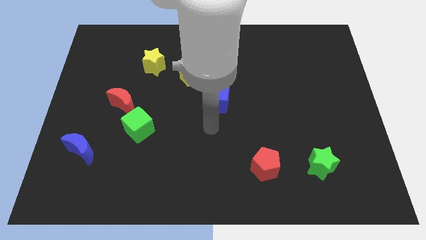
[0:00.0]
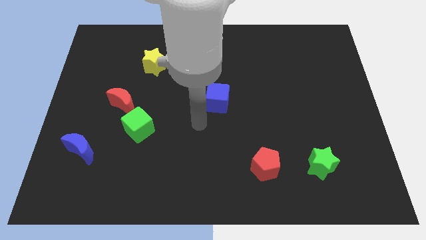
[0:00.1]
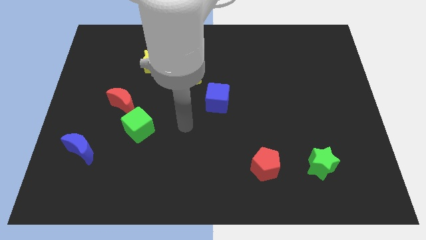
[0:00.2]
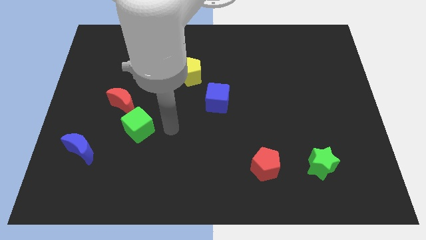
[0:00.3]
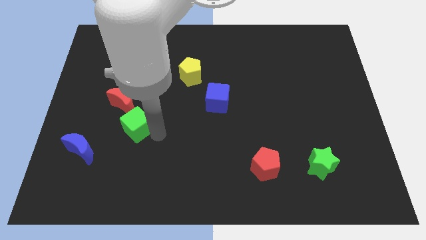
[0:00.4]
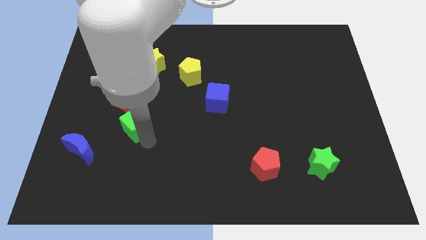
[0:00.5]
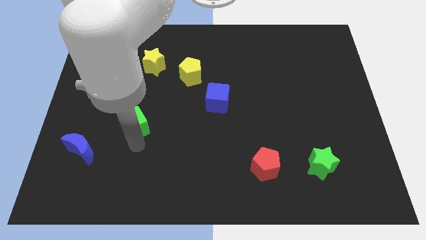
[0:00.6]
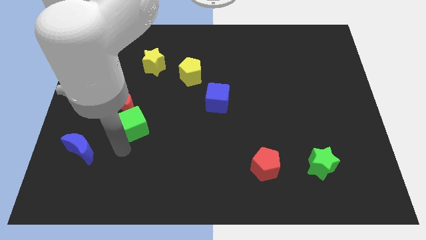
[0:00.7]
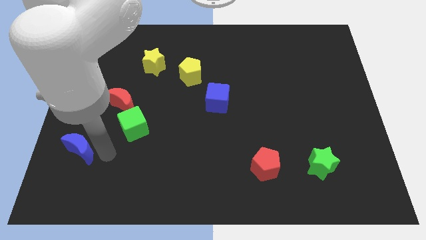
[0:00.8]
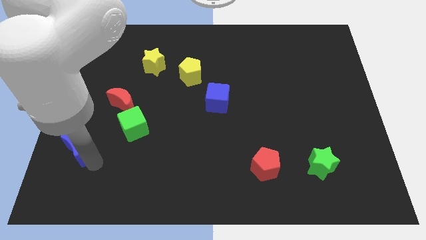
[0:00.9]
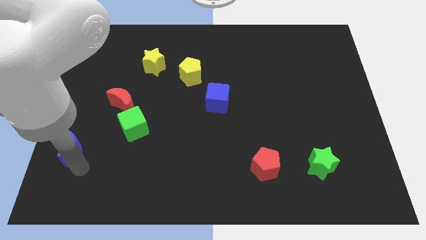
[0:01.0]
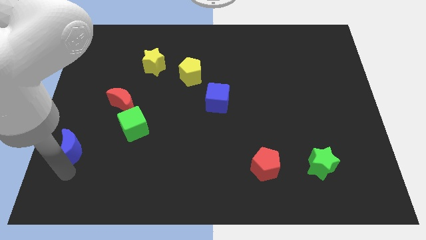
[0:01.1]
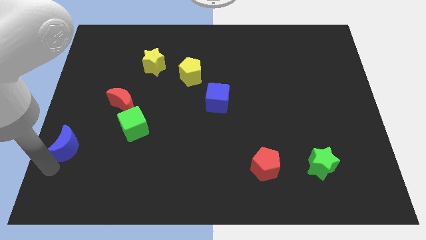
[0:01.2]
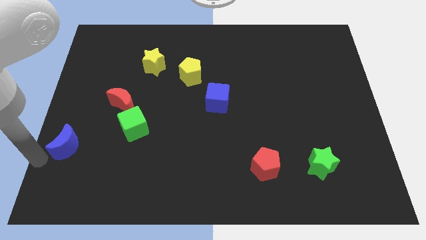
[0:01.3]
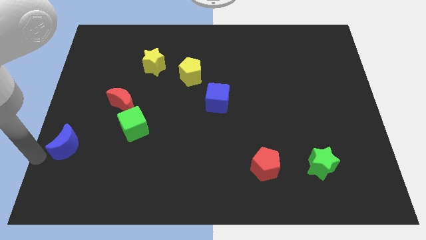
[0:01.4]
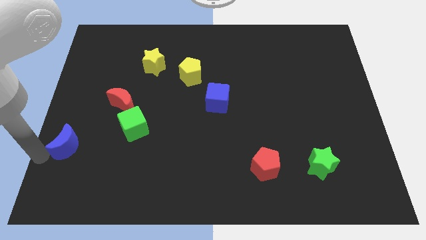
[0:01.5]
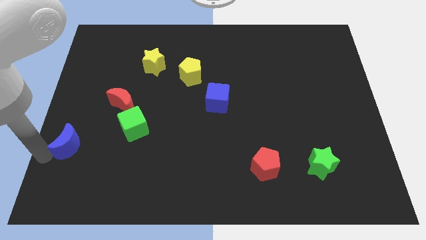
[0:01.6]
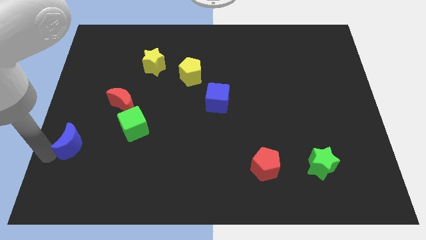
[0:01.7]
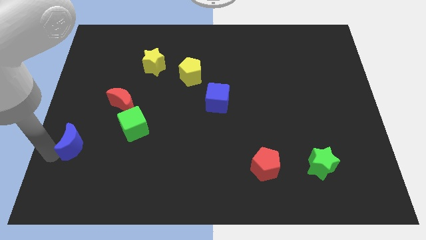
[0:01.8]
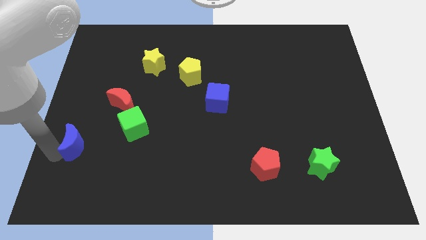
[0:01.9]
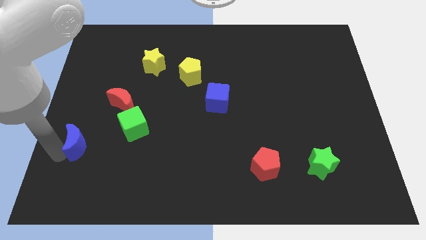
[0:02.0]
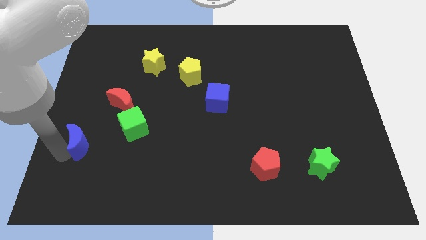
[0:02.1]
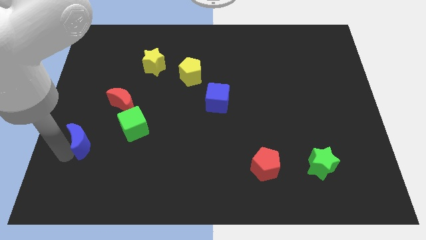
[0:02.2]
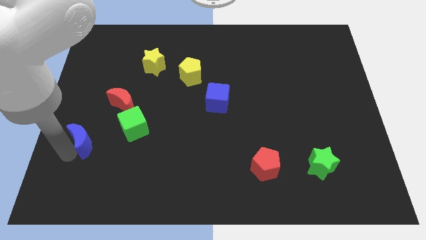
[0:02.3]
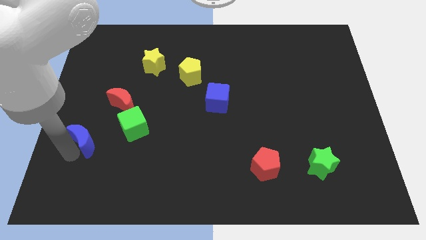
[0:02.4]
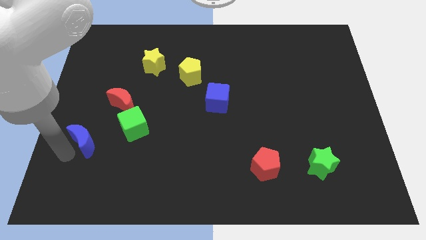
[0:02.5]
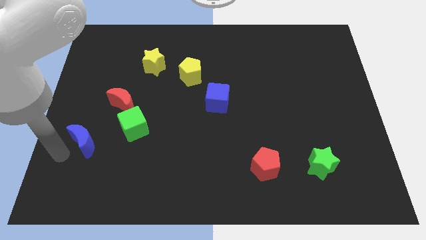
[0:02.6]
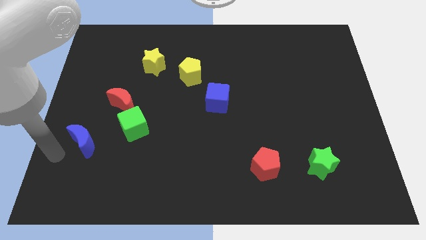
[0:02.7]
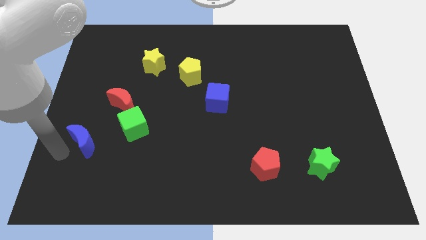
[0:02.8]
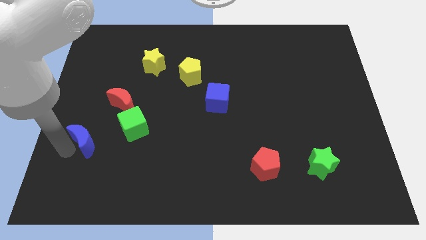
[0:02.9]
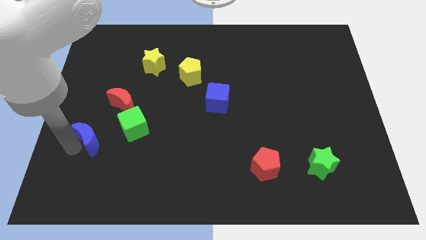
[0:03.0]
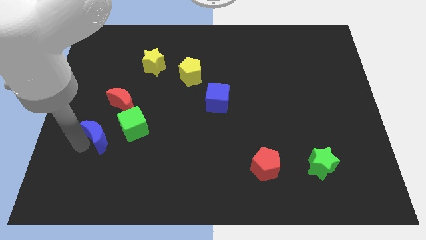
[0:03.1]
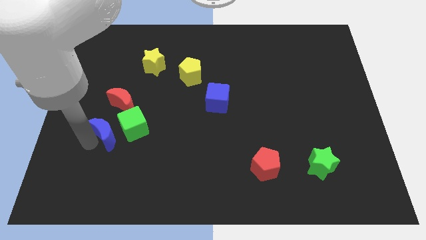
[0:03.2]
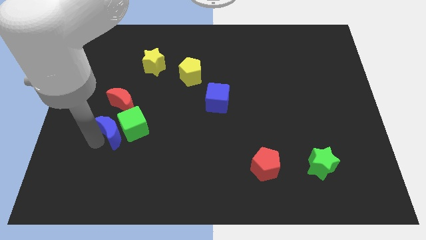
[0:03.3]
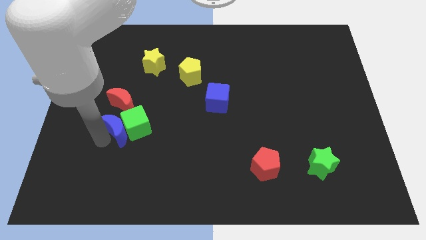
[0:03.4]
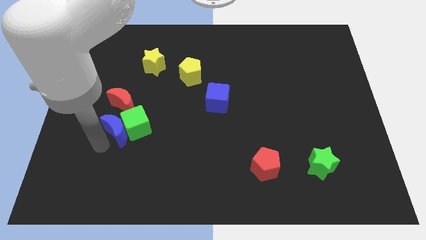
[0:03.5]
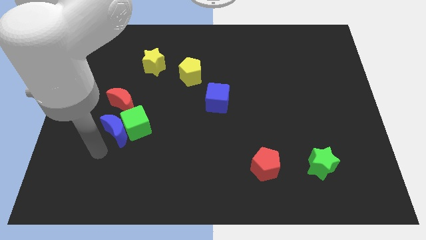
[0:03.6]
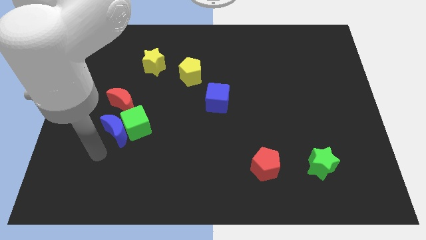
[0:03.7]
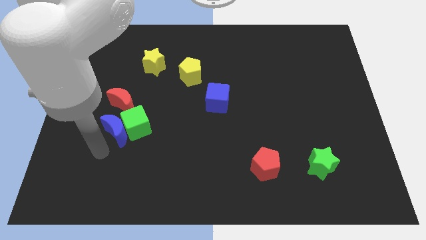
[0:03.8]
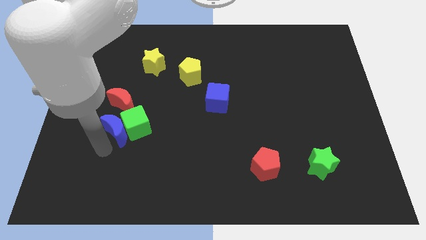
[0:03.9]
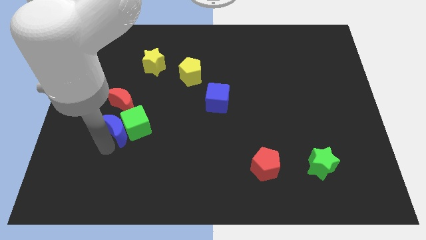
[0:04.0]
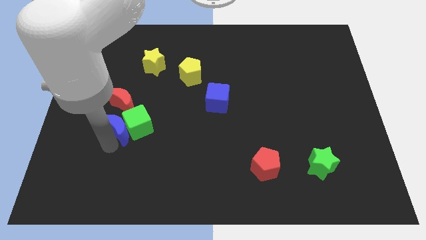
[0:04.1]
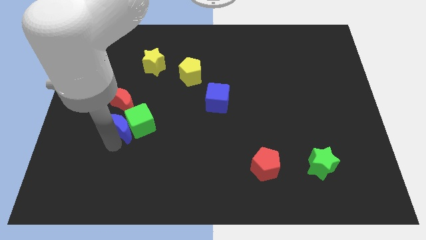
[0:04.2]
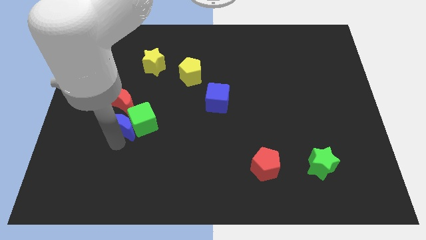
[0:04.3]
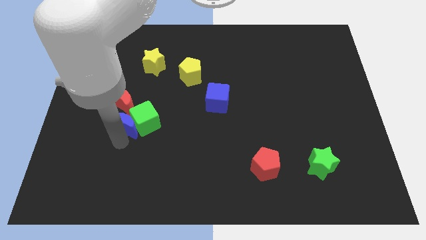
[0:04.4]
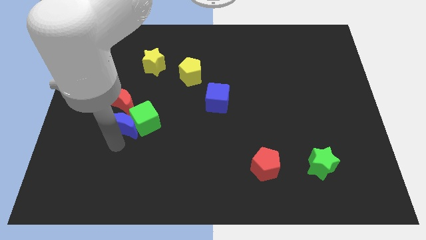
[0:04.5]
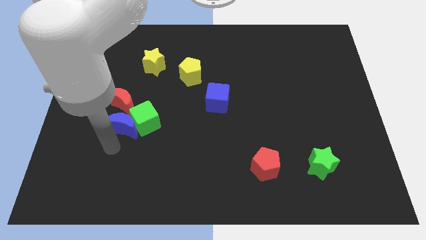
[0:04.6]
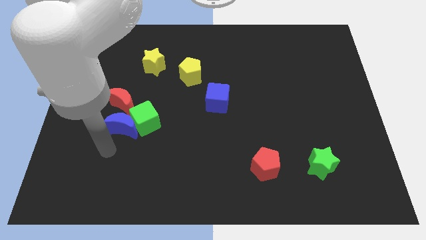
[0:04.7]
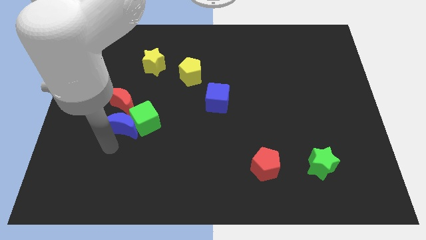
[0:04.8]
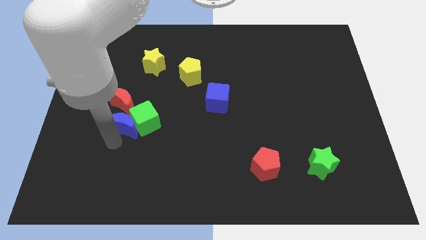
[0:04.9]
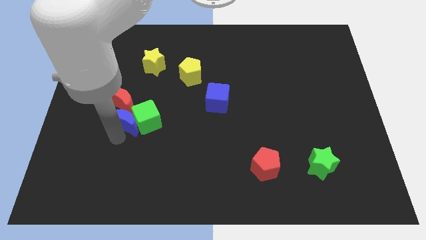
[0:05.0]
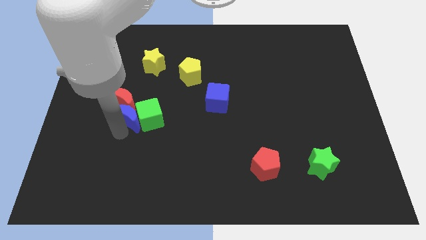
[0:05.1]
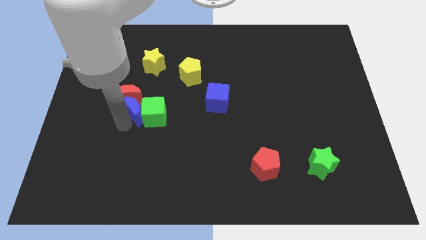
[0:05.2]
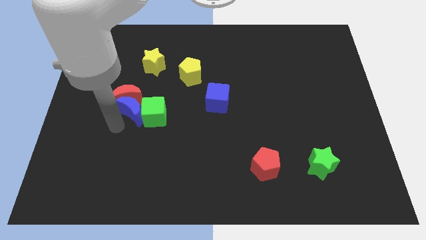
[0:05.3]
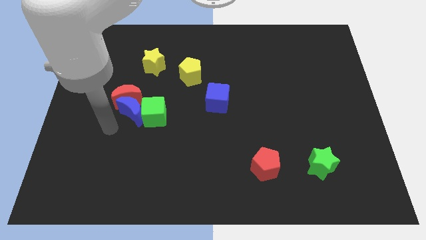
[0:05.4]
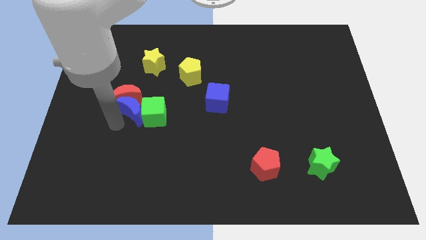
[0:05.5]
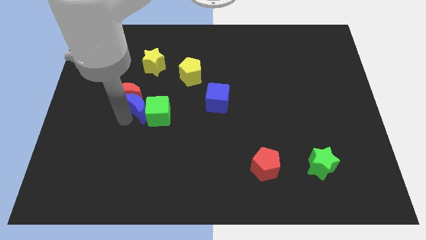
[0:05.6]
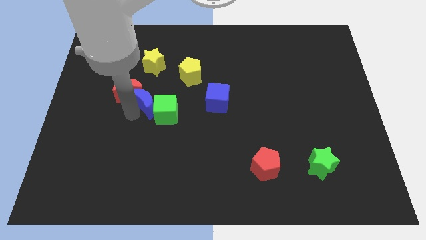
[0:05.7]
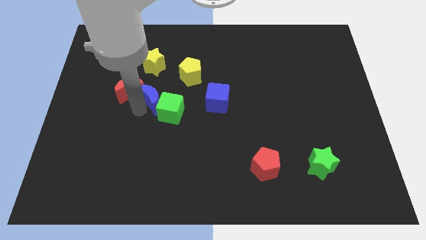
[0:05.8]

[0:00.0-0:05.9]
slide the blue moon to the bottom left side of the yellow pentagon
